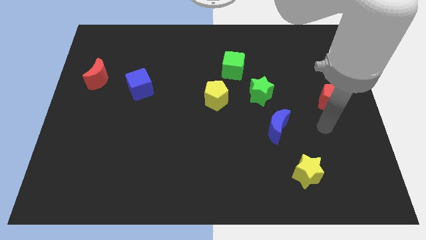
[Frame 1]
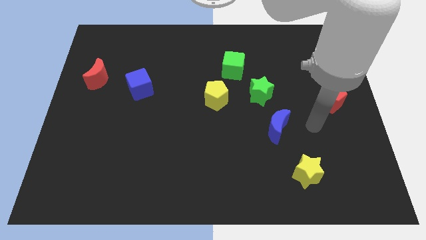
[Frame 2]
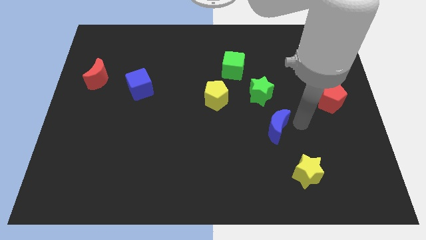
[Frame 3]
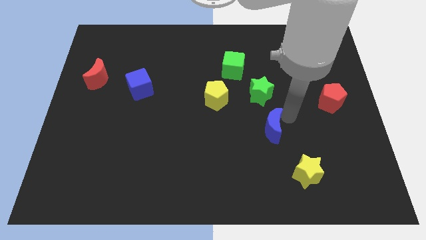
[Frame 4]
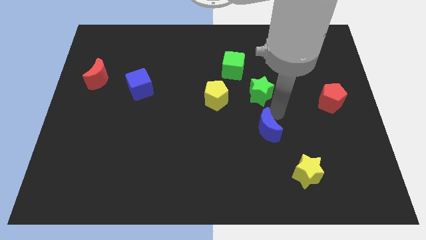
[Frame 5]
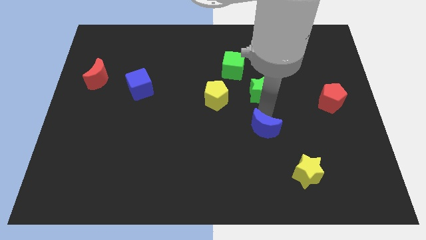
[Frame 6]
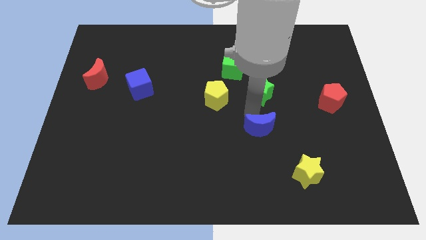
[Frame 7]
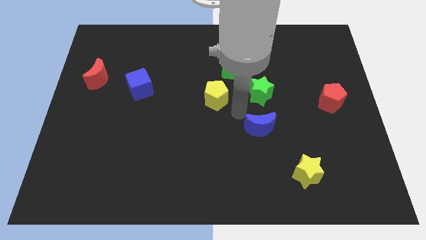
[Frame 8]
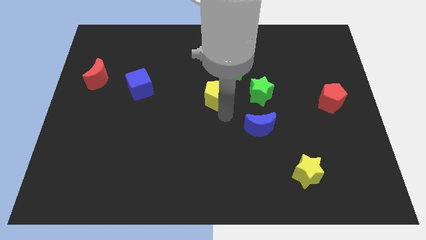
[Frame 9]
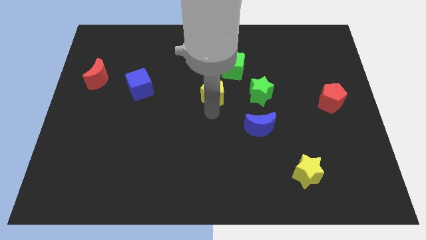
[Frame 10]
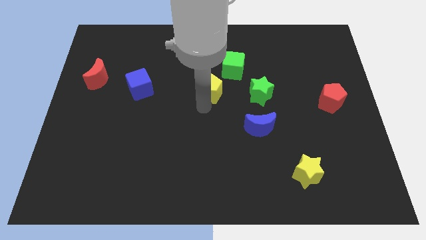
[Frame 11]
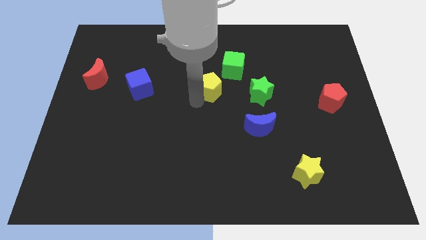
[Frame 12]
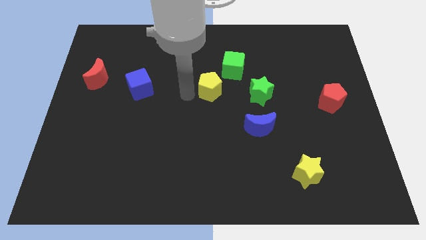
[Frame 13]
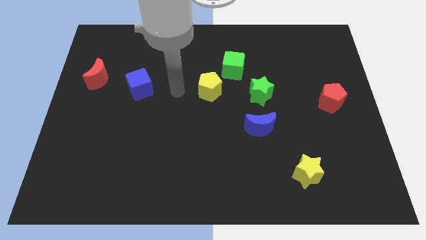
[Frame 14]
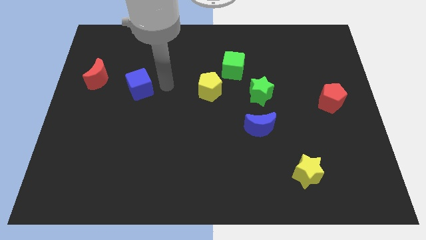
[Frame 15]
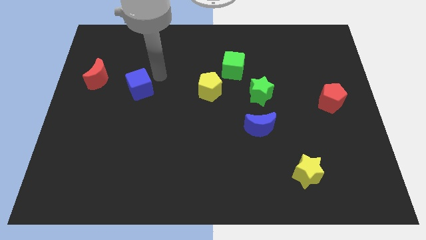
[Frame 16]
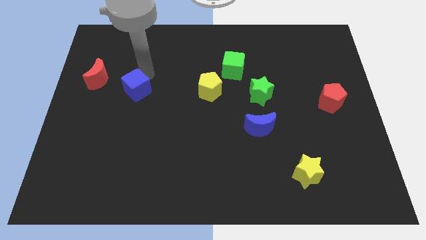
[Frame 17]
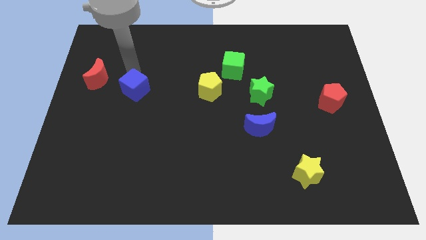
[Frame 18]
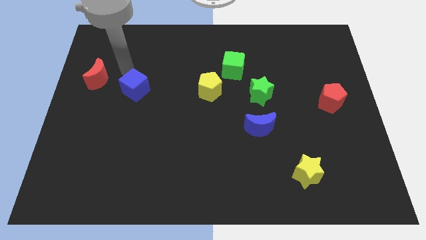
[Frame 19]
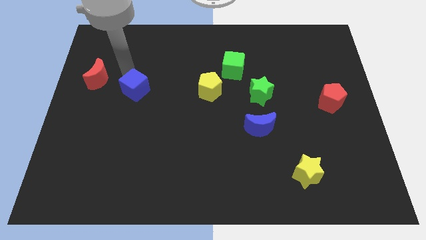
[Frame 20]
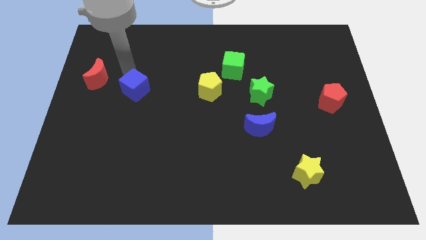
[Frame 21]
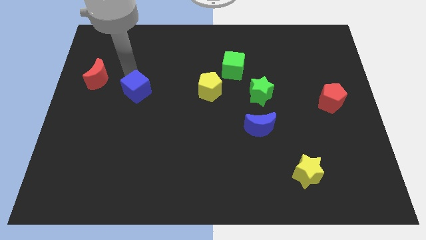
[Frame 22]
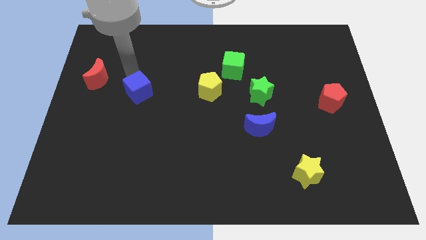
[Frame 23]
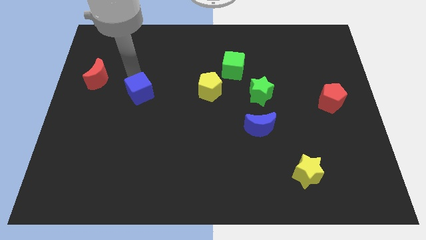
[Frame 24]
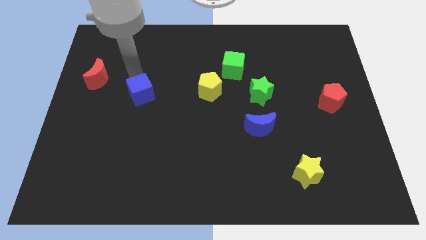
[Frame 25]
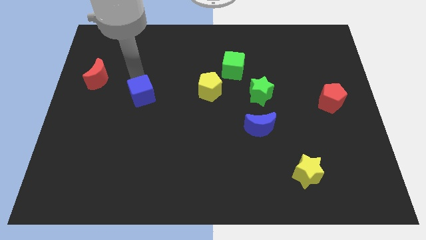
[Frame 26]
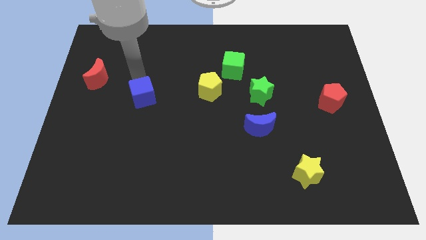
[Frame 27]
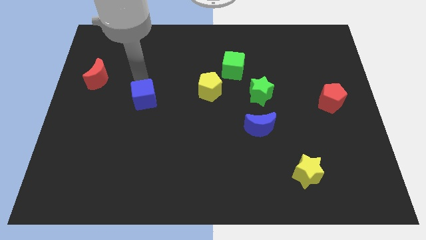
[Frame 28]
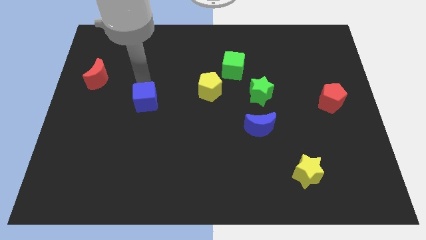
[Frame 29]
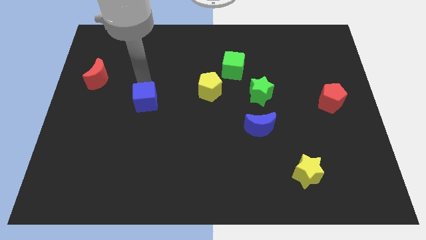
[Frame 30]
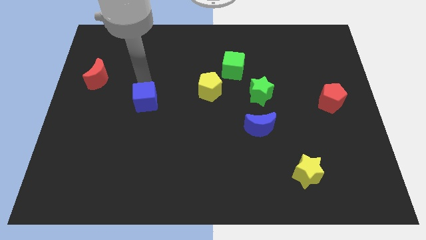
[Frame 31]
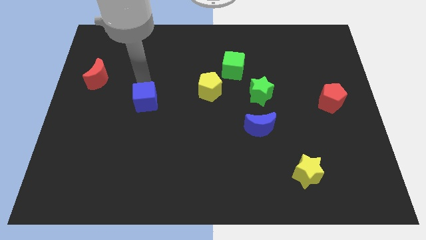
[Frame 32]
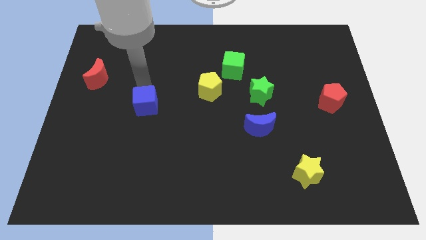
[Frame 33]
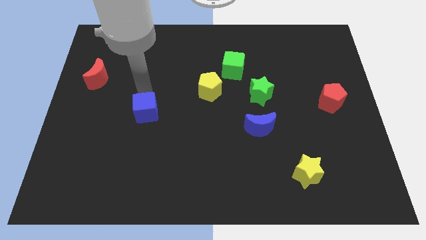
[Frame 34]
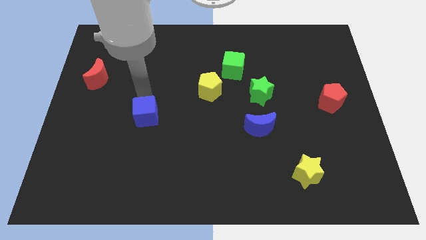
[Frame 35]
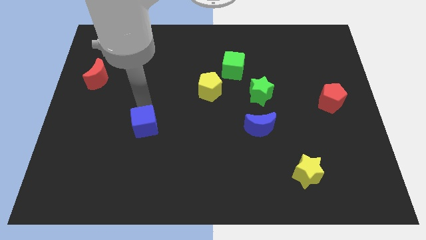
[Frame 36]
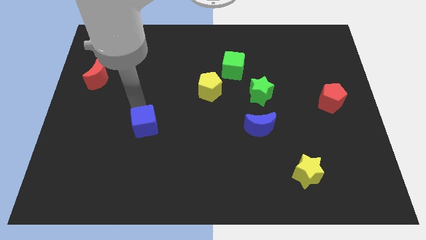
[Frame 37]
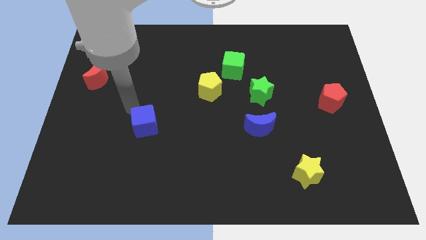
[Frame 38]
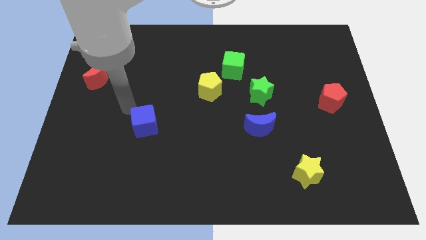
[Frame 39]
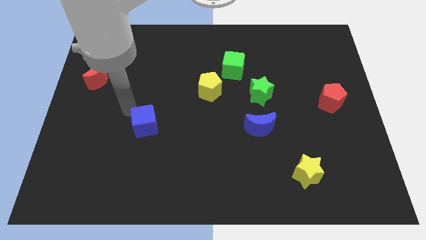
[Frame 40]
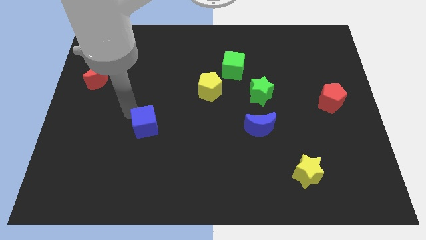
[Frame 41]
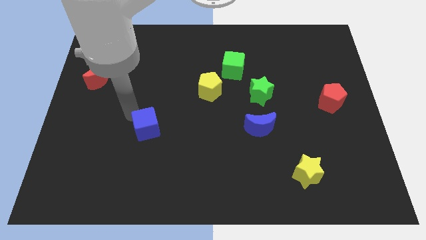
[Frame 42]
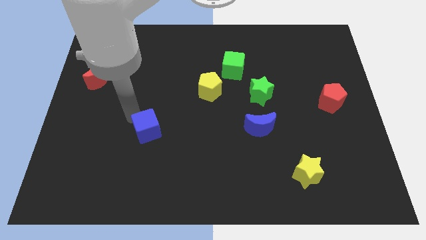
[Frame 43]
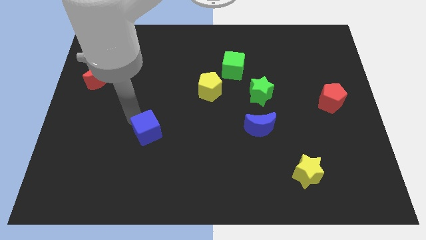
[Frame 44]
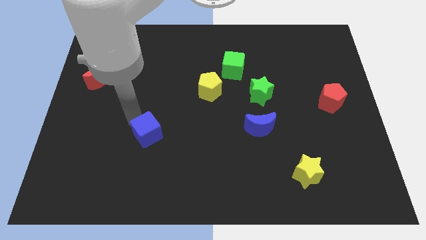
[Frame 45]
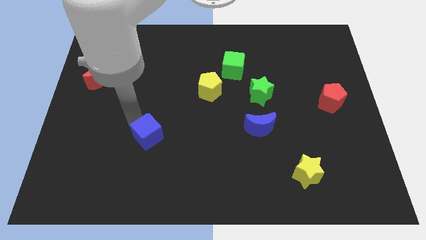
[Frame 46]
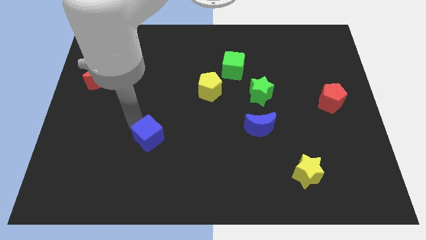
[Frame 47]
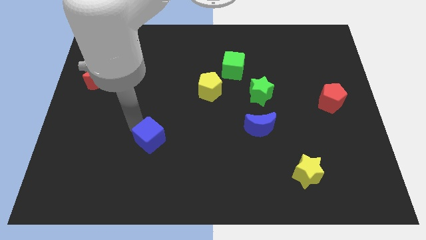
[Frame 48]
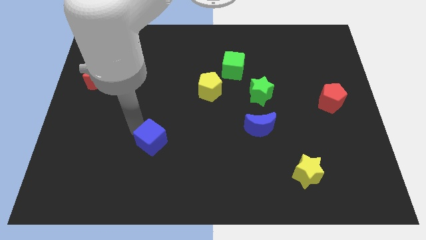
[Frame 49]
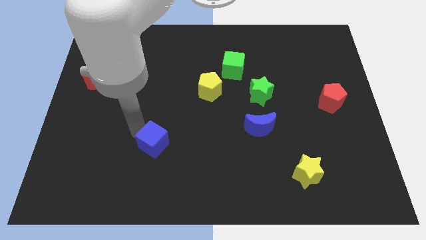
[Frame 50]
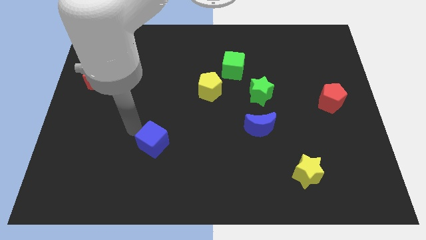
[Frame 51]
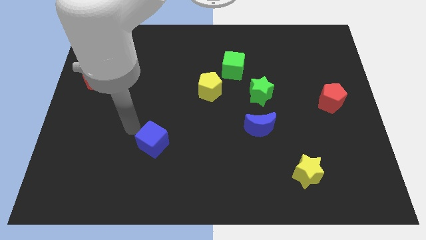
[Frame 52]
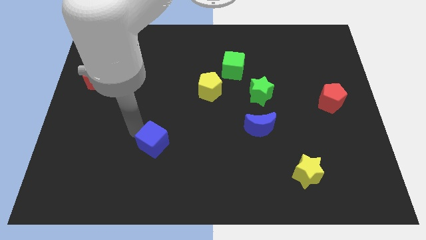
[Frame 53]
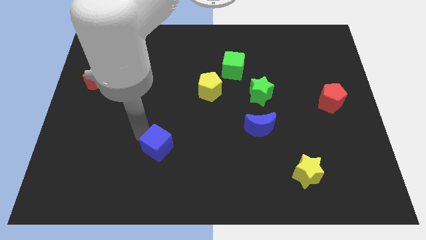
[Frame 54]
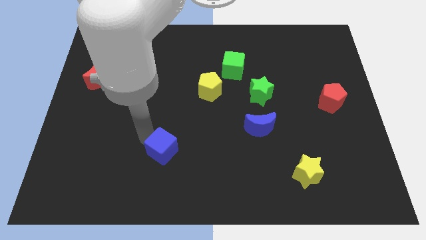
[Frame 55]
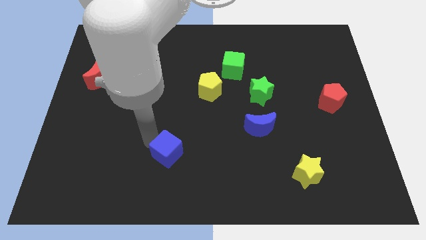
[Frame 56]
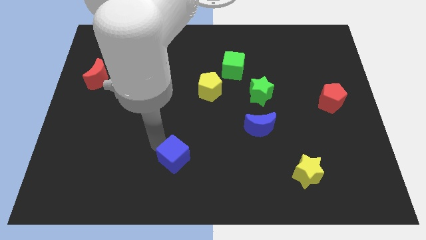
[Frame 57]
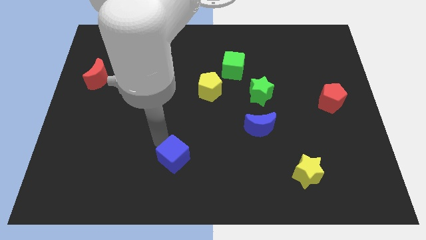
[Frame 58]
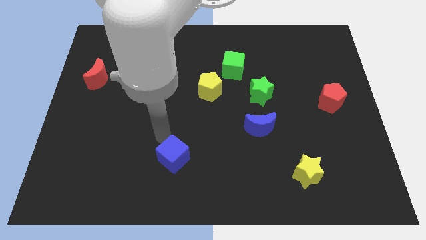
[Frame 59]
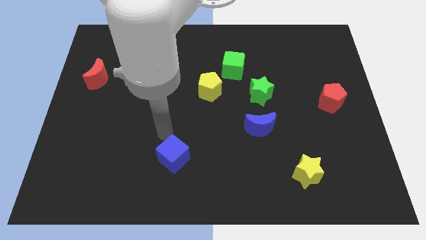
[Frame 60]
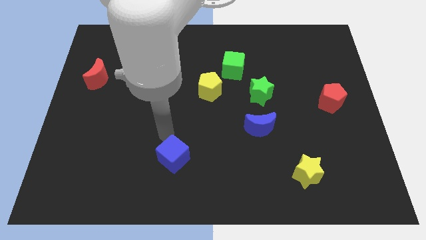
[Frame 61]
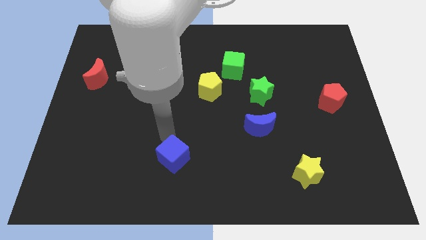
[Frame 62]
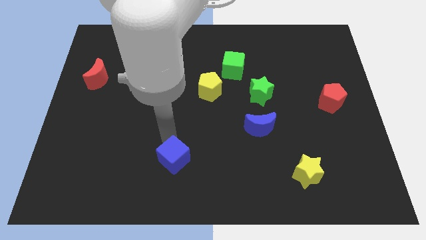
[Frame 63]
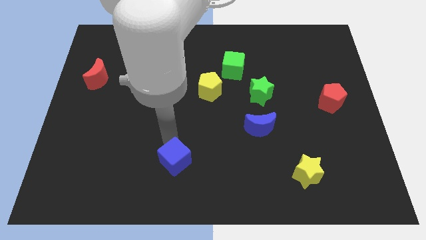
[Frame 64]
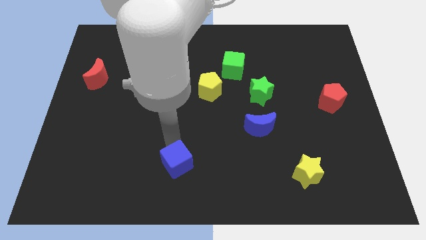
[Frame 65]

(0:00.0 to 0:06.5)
push the blue cube to the bottom
